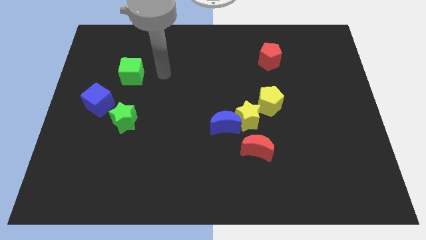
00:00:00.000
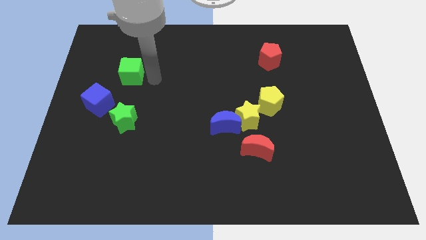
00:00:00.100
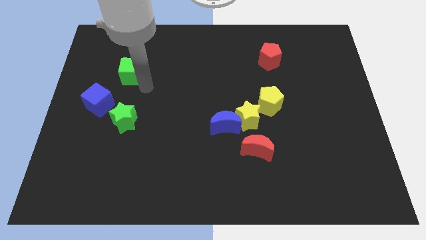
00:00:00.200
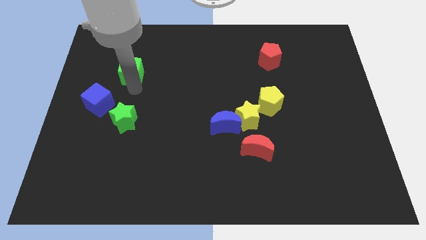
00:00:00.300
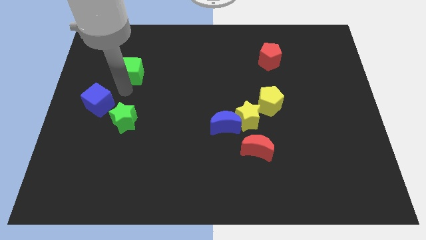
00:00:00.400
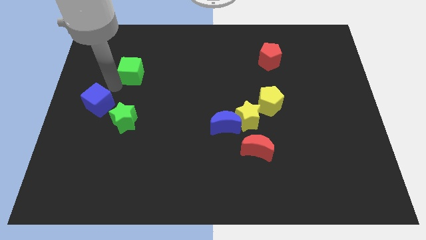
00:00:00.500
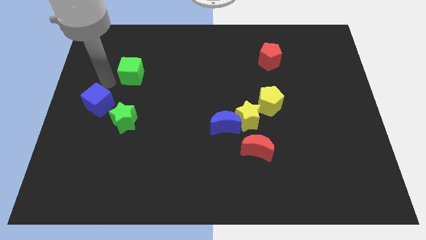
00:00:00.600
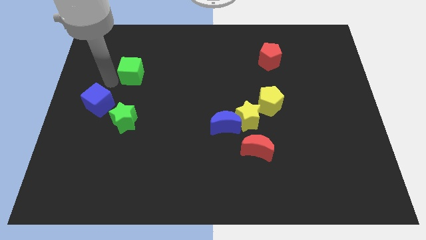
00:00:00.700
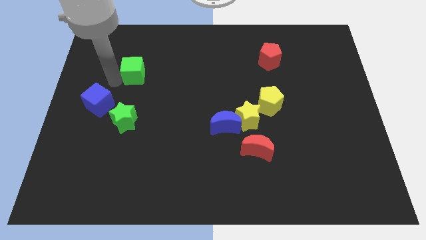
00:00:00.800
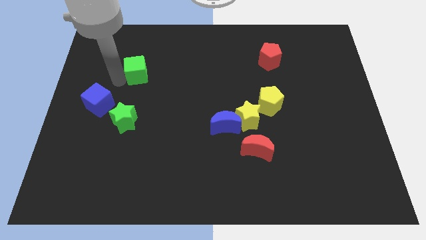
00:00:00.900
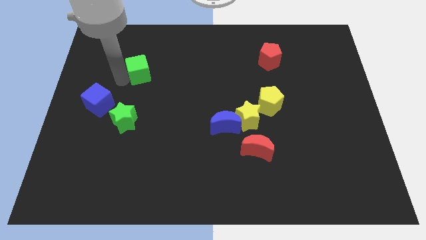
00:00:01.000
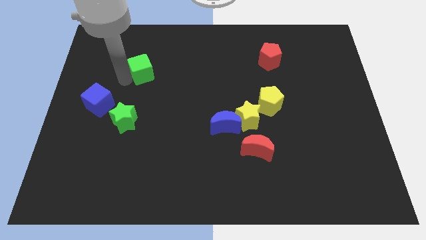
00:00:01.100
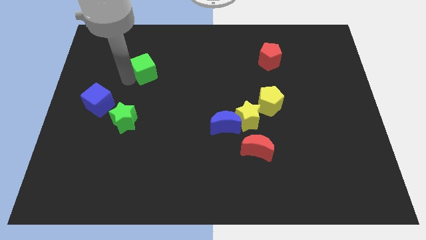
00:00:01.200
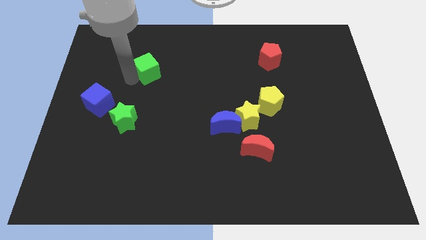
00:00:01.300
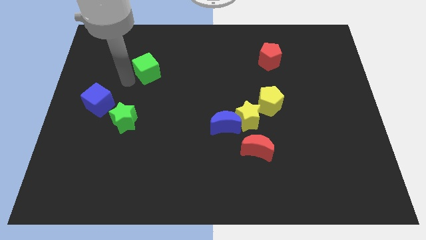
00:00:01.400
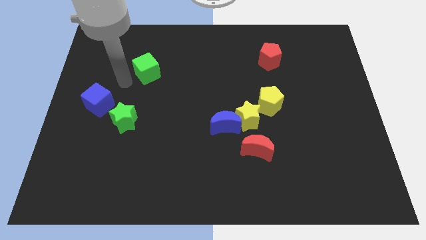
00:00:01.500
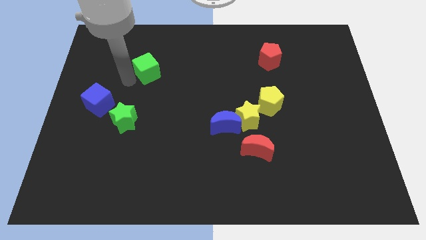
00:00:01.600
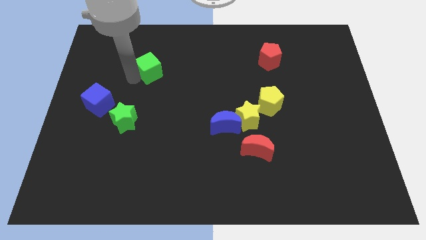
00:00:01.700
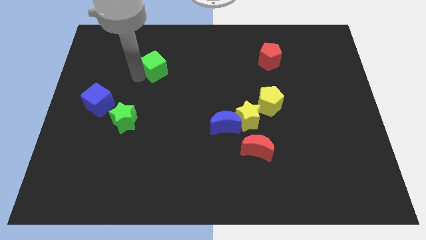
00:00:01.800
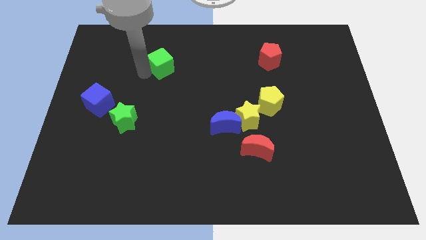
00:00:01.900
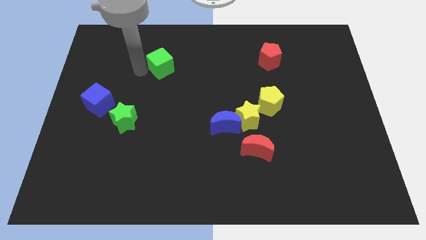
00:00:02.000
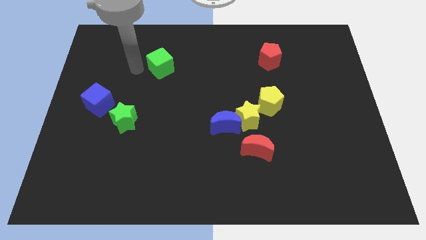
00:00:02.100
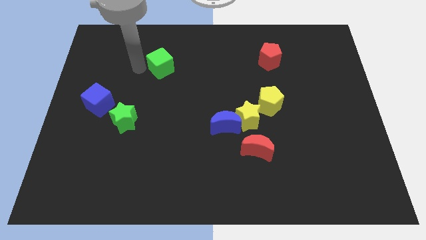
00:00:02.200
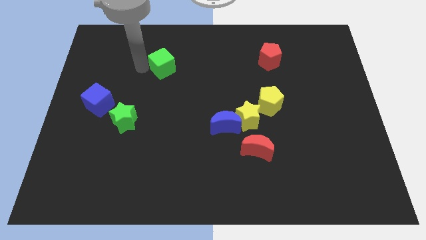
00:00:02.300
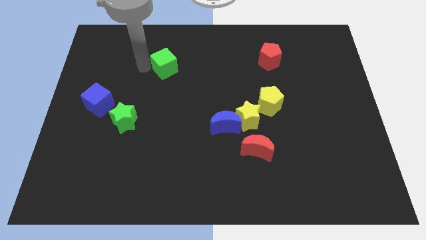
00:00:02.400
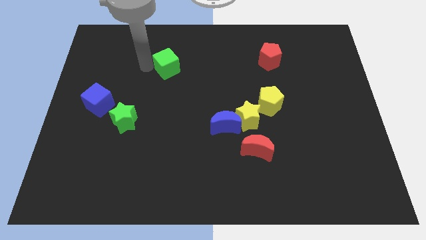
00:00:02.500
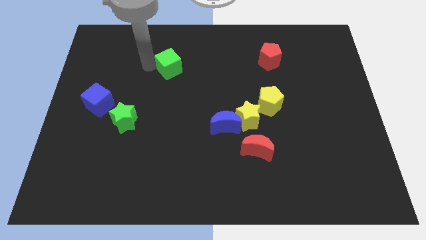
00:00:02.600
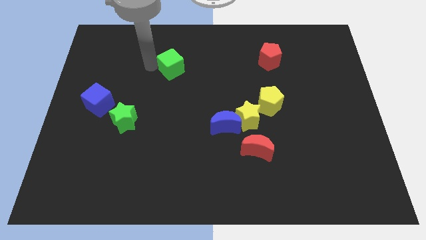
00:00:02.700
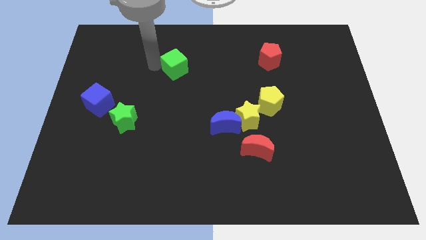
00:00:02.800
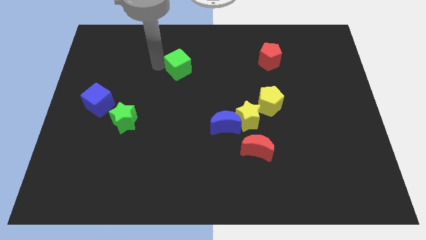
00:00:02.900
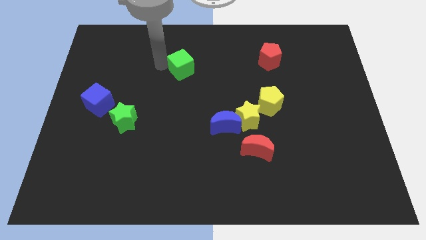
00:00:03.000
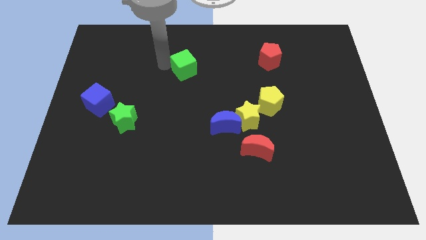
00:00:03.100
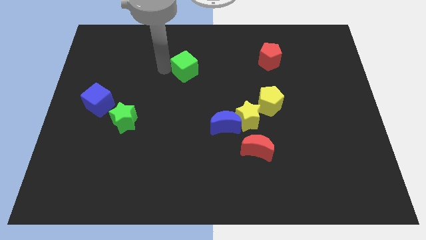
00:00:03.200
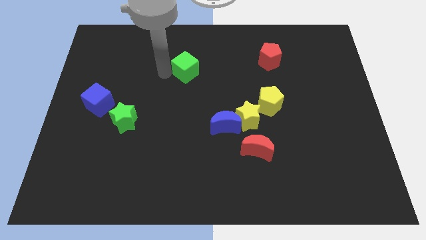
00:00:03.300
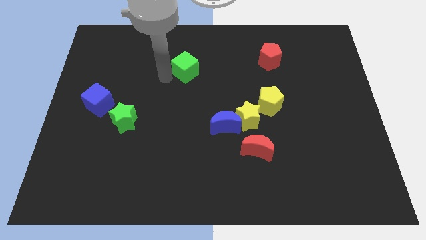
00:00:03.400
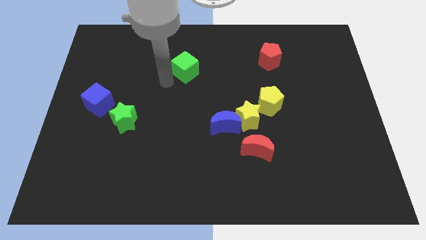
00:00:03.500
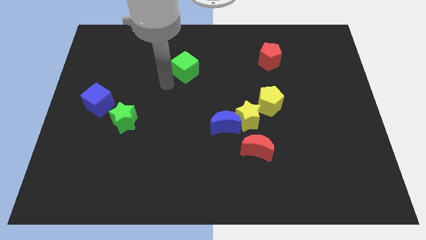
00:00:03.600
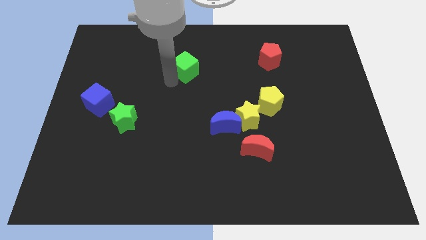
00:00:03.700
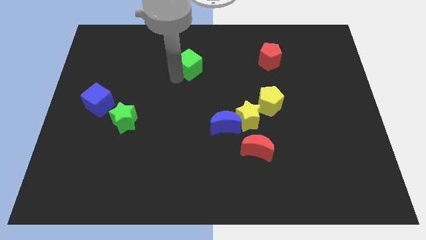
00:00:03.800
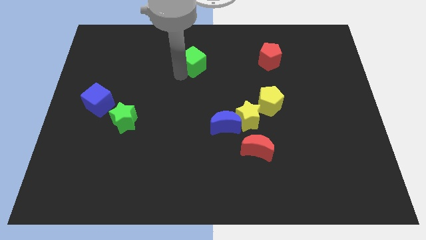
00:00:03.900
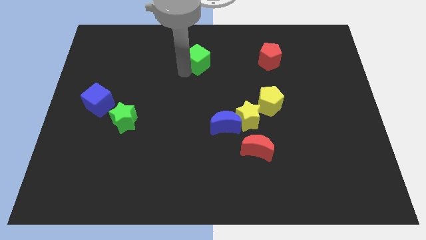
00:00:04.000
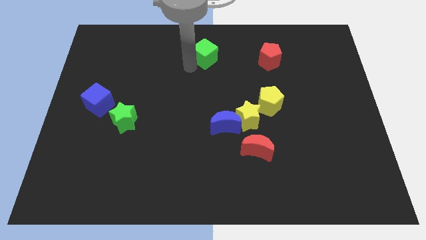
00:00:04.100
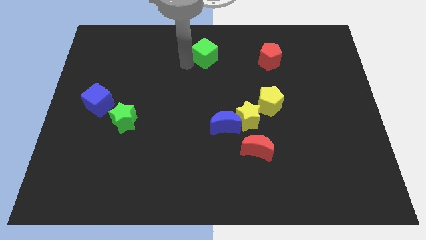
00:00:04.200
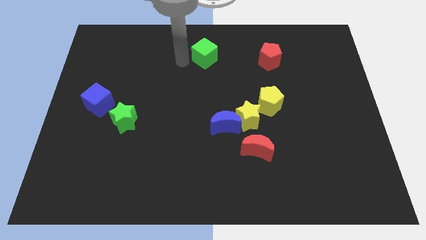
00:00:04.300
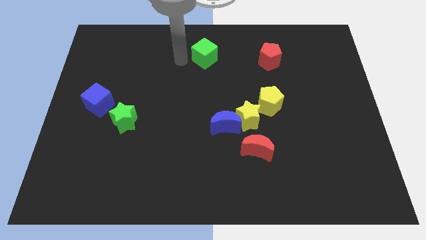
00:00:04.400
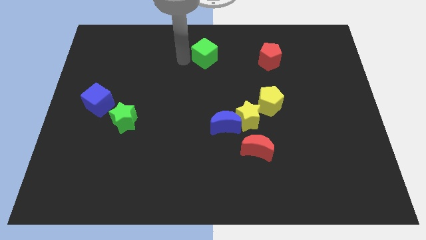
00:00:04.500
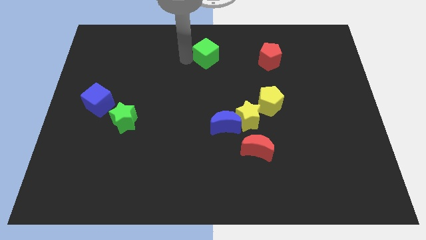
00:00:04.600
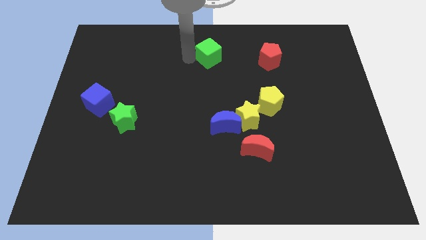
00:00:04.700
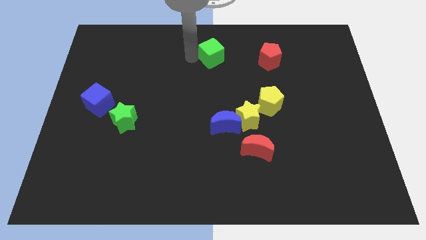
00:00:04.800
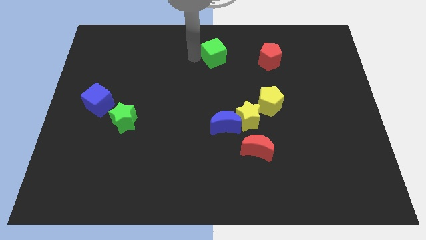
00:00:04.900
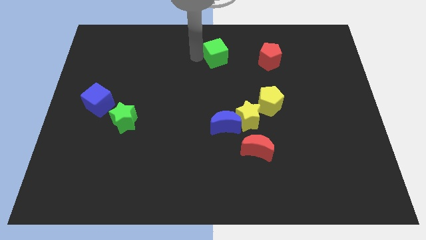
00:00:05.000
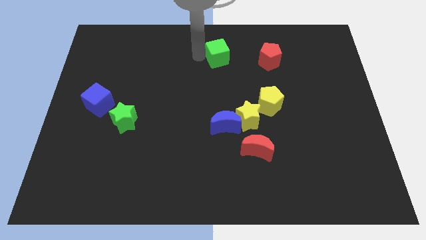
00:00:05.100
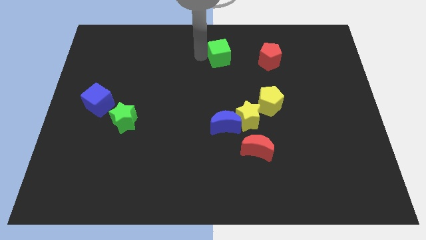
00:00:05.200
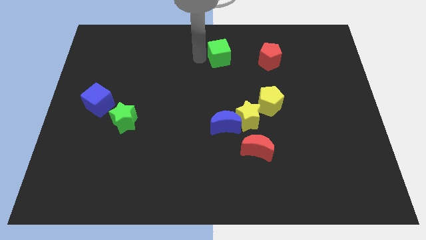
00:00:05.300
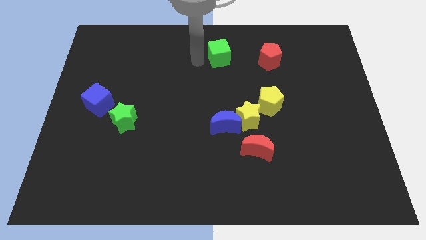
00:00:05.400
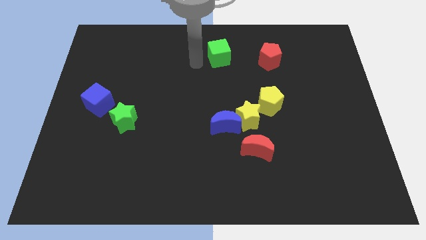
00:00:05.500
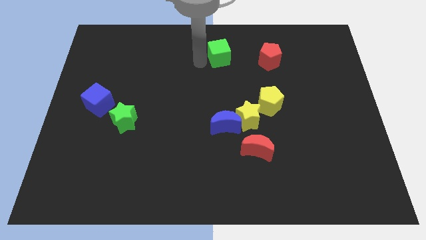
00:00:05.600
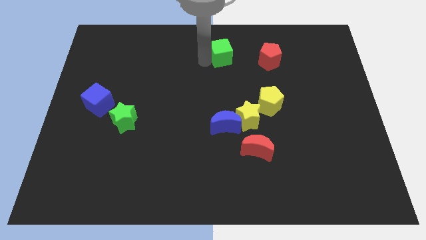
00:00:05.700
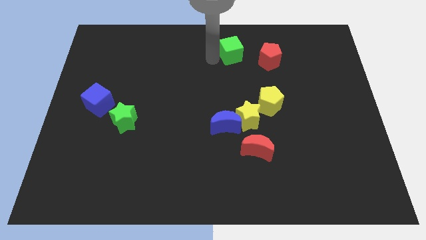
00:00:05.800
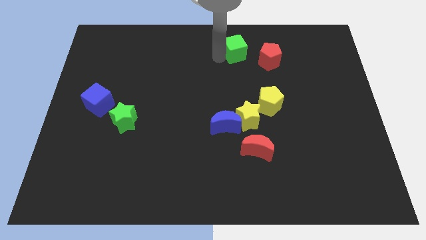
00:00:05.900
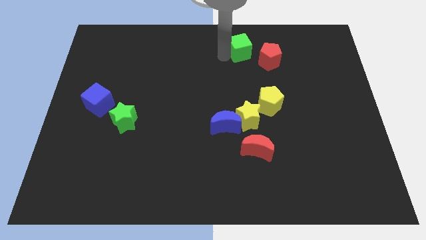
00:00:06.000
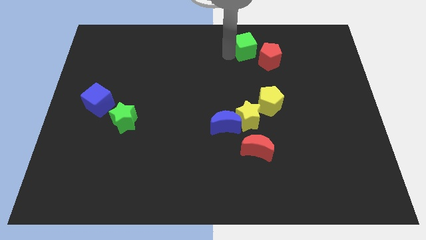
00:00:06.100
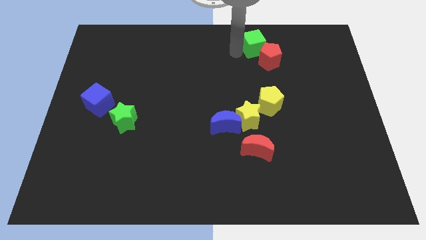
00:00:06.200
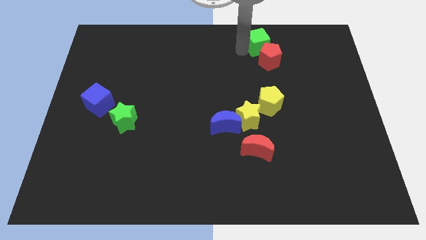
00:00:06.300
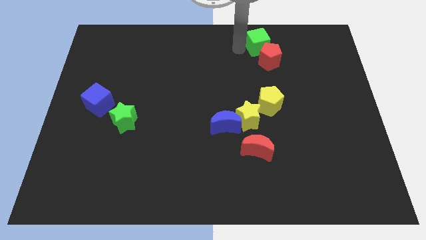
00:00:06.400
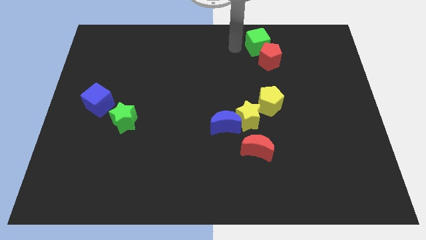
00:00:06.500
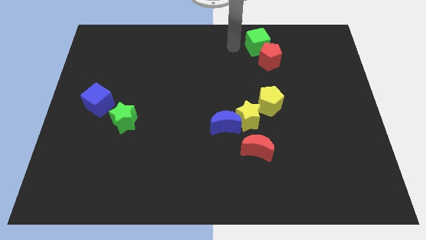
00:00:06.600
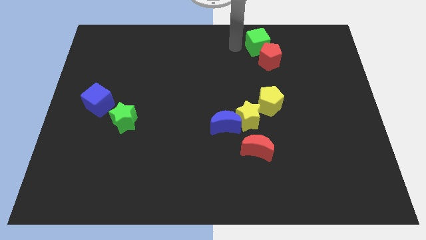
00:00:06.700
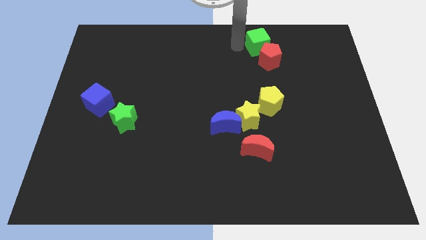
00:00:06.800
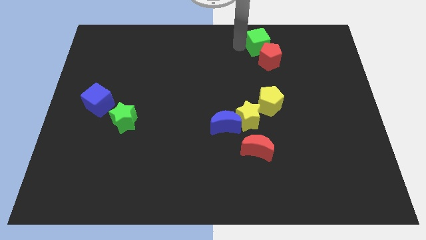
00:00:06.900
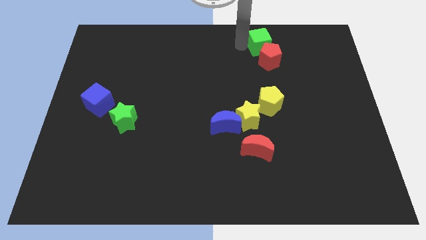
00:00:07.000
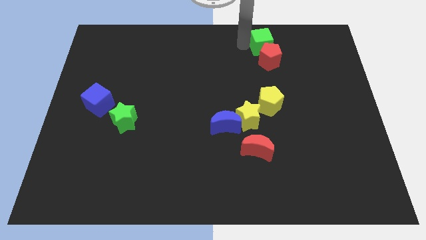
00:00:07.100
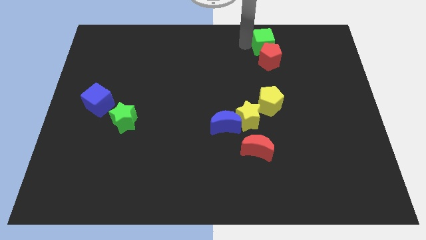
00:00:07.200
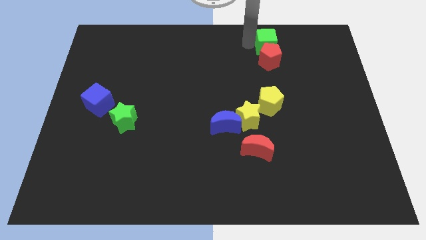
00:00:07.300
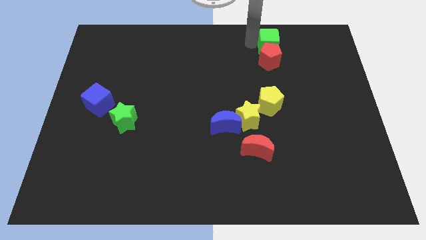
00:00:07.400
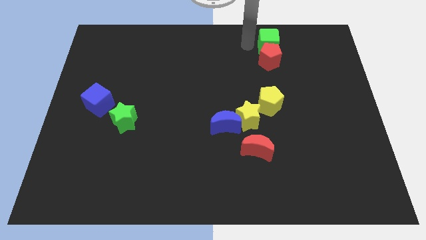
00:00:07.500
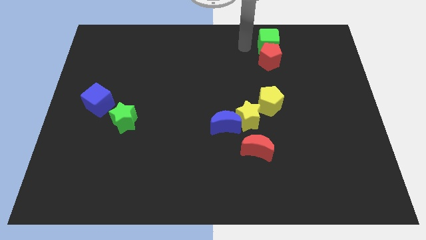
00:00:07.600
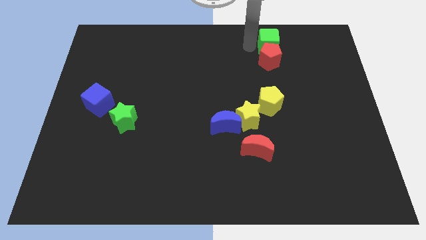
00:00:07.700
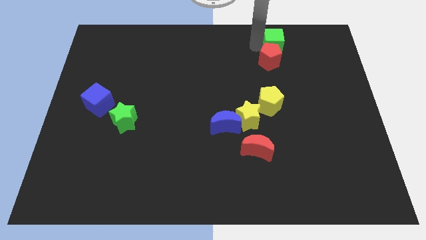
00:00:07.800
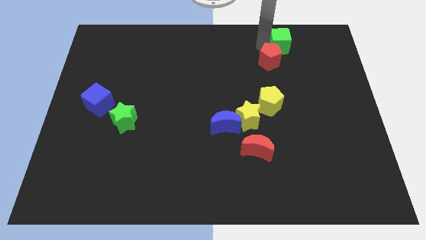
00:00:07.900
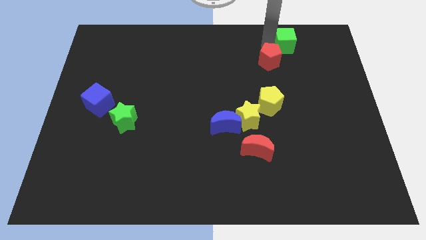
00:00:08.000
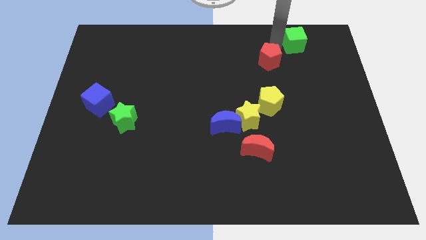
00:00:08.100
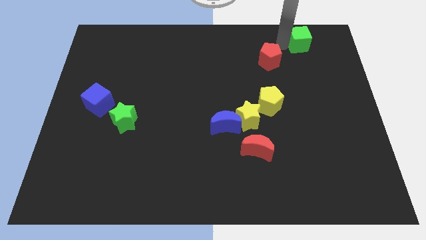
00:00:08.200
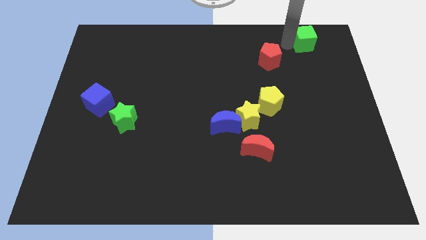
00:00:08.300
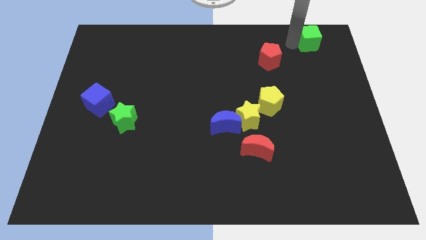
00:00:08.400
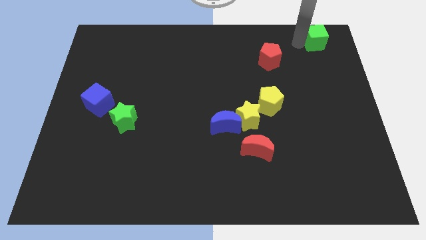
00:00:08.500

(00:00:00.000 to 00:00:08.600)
slide the green cube to the top right of the board
